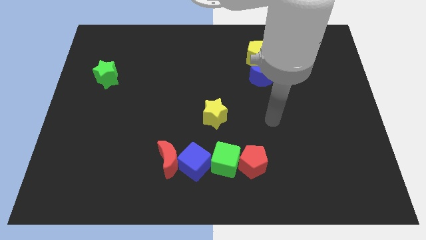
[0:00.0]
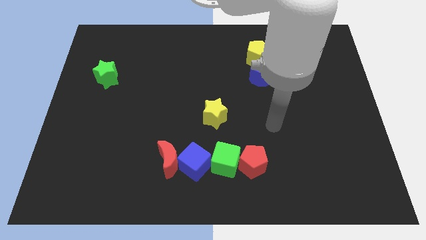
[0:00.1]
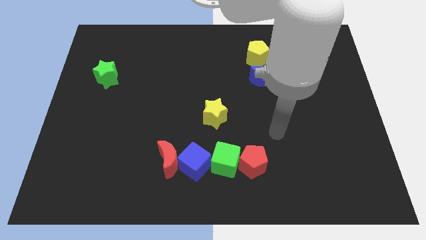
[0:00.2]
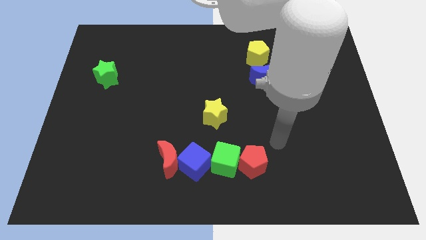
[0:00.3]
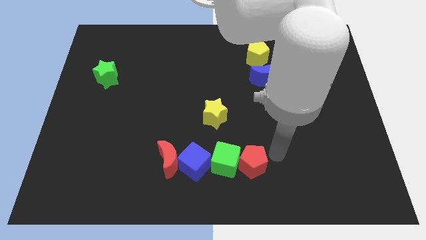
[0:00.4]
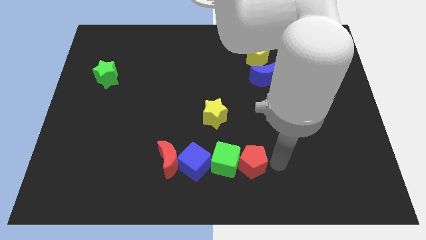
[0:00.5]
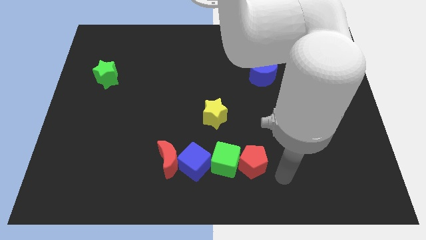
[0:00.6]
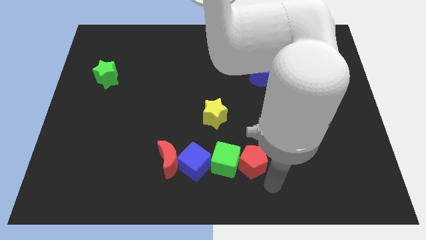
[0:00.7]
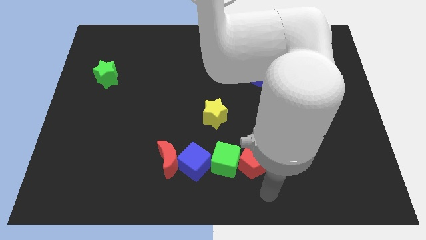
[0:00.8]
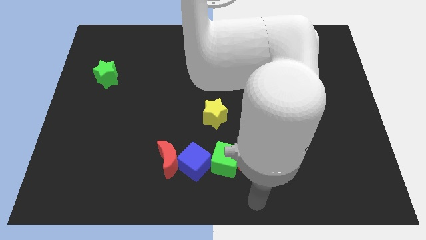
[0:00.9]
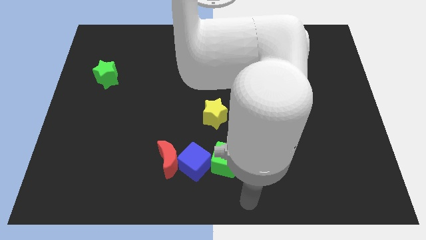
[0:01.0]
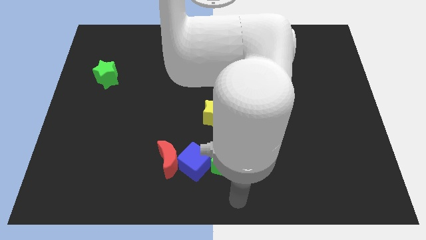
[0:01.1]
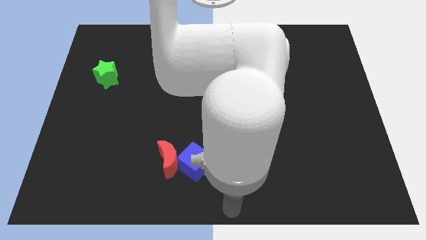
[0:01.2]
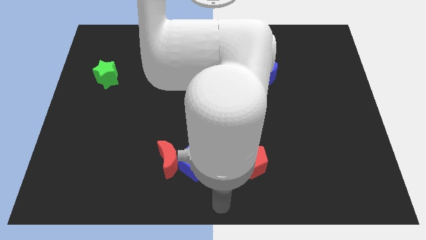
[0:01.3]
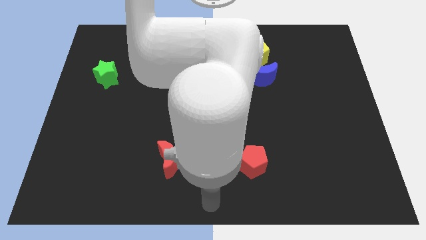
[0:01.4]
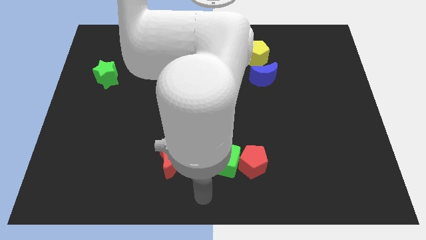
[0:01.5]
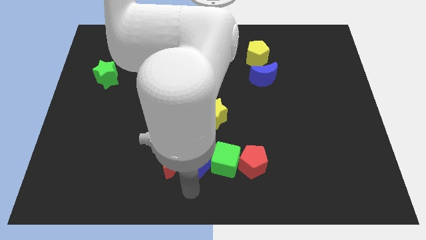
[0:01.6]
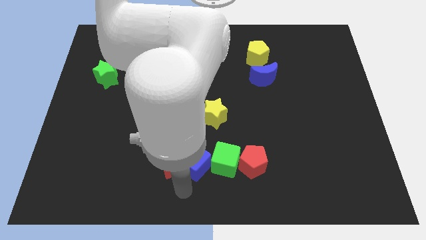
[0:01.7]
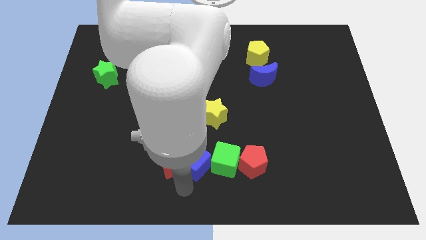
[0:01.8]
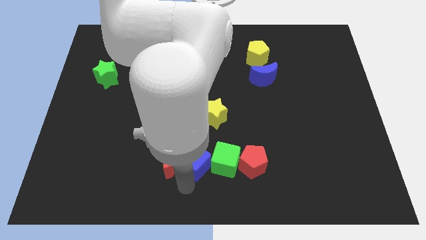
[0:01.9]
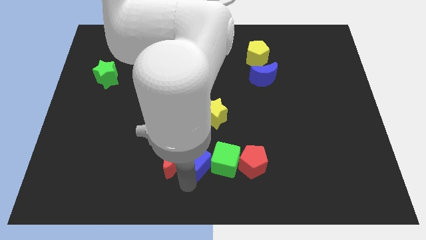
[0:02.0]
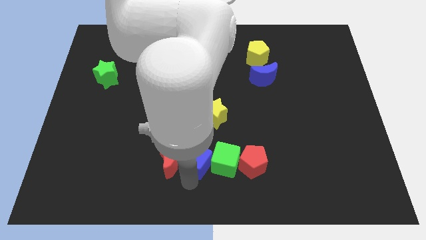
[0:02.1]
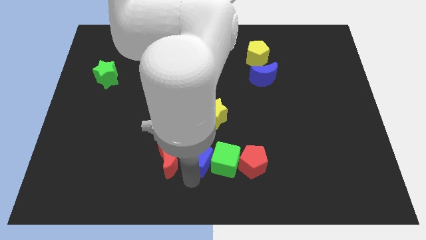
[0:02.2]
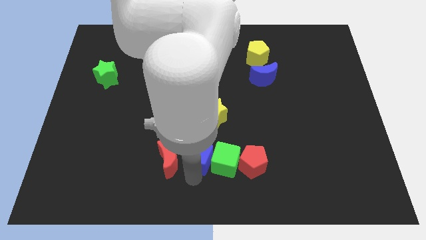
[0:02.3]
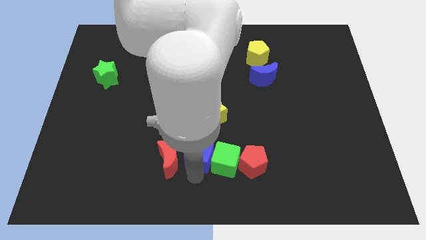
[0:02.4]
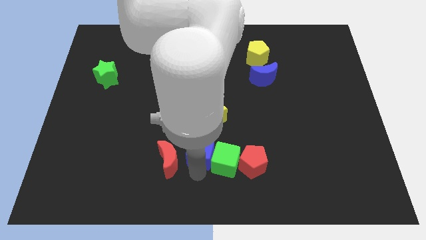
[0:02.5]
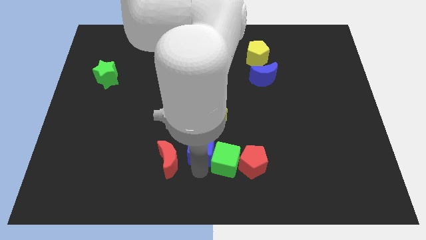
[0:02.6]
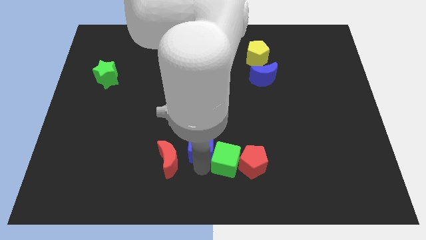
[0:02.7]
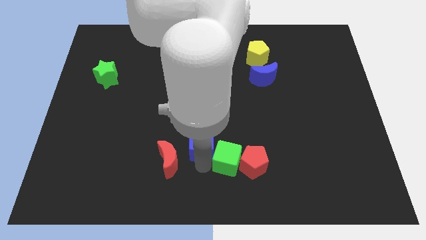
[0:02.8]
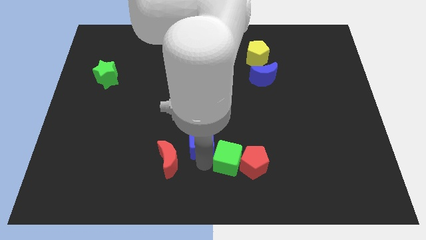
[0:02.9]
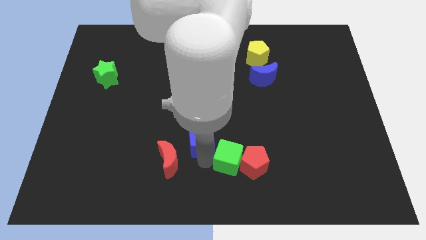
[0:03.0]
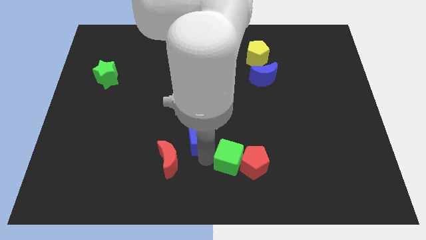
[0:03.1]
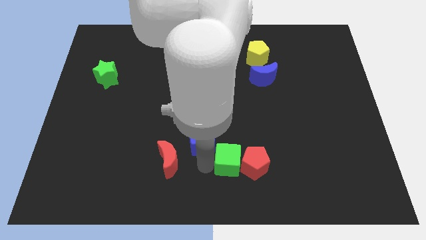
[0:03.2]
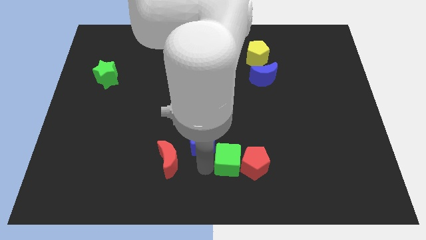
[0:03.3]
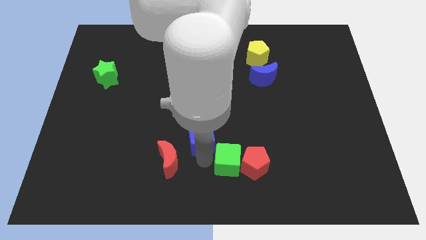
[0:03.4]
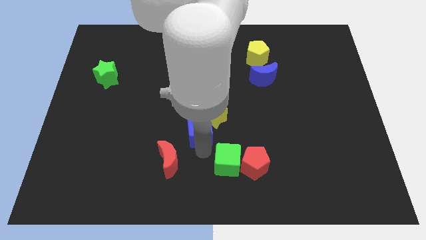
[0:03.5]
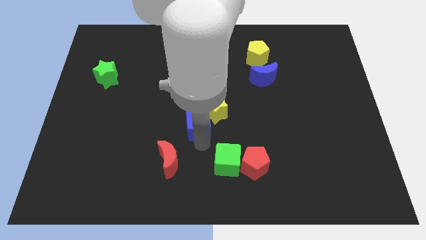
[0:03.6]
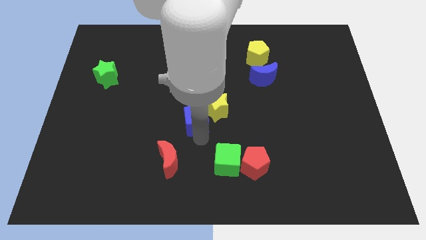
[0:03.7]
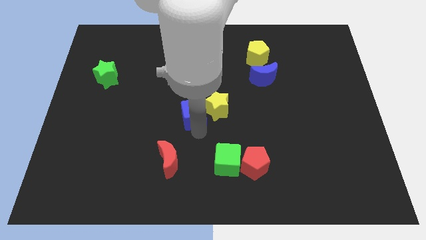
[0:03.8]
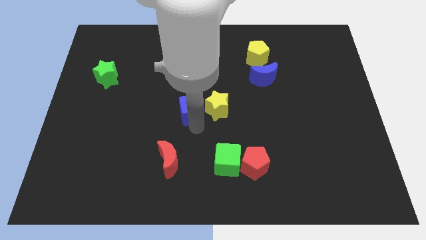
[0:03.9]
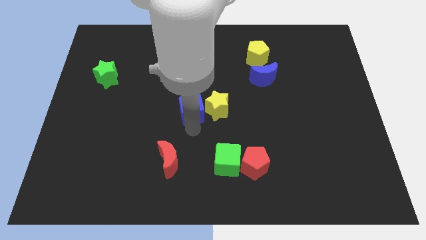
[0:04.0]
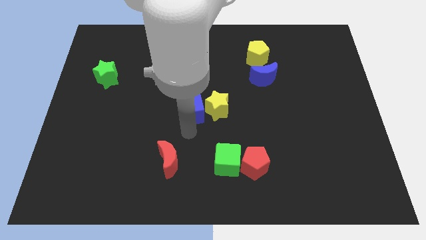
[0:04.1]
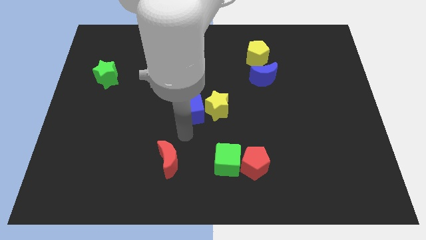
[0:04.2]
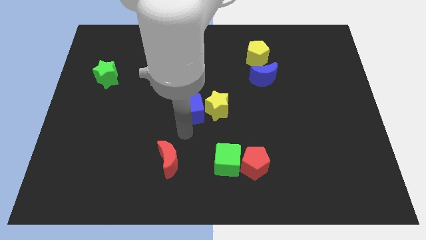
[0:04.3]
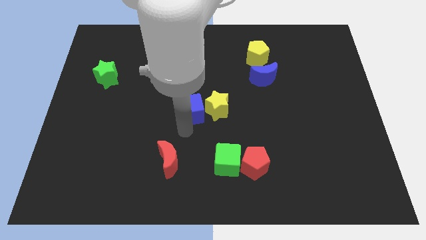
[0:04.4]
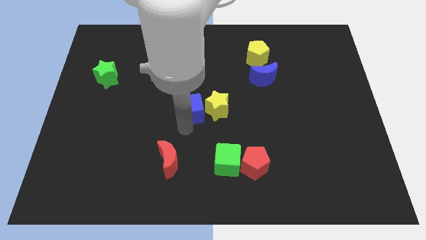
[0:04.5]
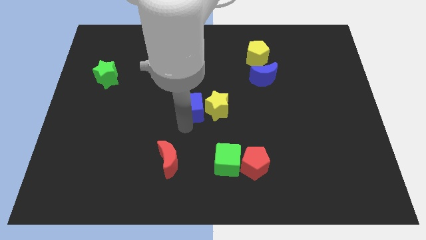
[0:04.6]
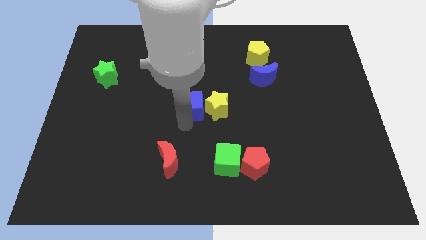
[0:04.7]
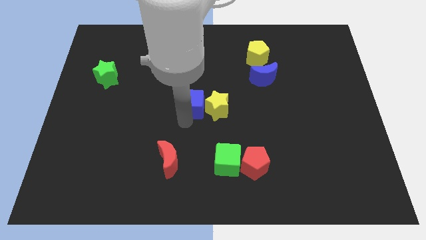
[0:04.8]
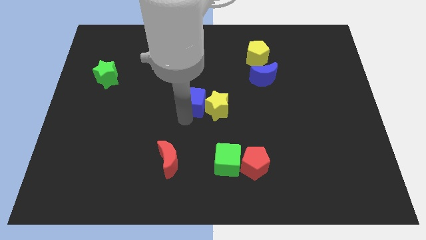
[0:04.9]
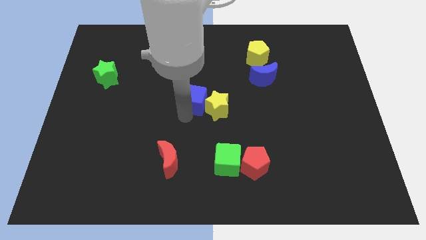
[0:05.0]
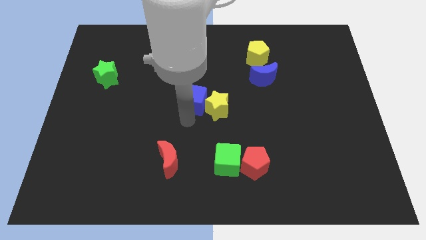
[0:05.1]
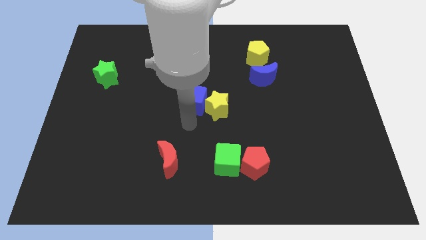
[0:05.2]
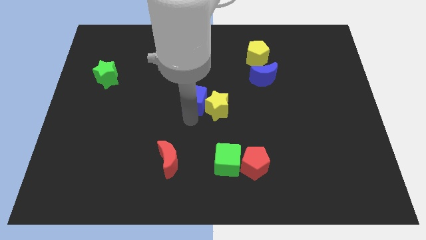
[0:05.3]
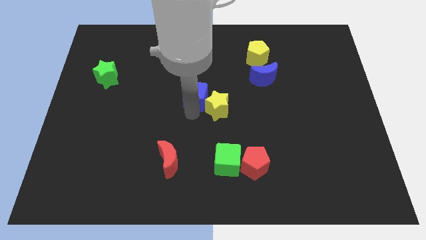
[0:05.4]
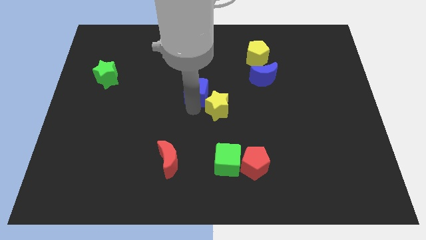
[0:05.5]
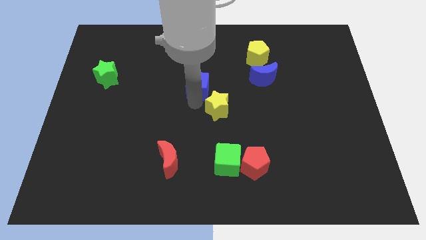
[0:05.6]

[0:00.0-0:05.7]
push the blue cube upwards

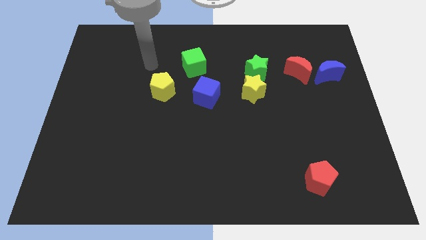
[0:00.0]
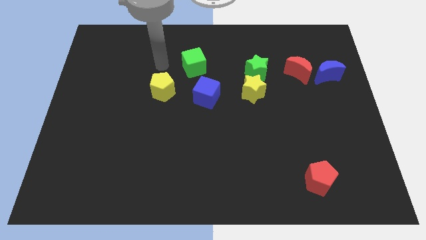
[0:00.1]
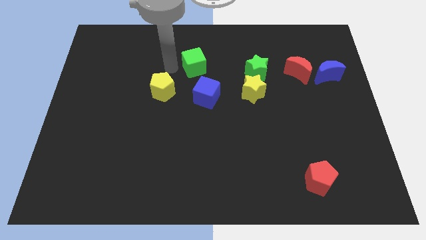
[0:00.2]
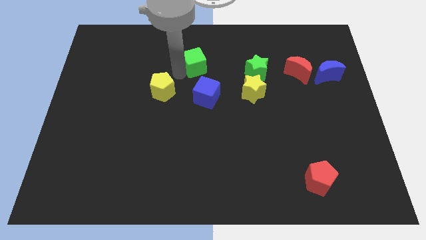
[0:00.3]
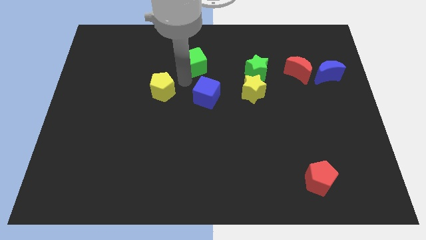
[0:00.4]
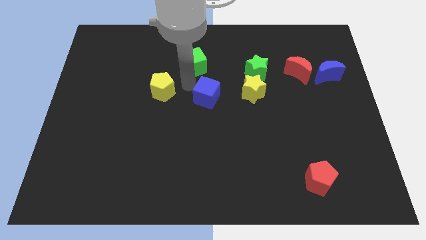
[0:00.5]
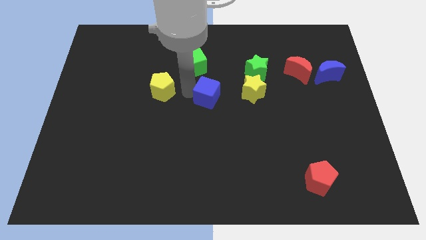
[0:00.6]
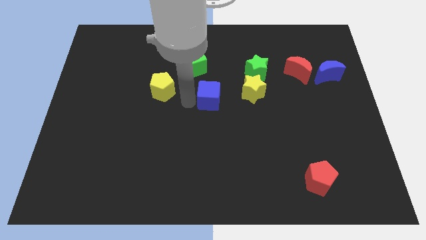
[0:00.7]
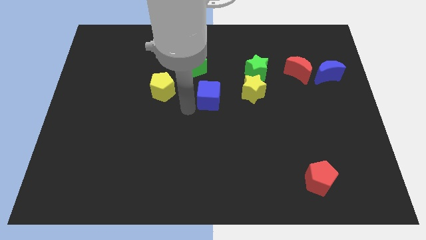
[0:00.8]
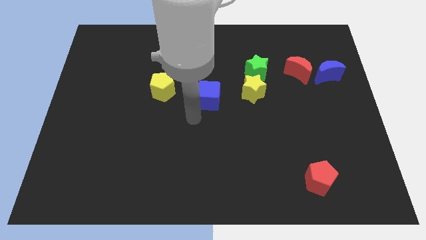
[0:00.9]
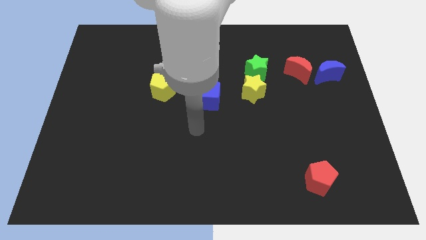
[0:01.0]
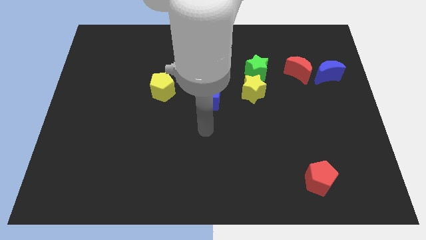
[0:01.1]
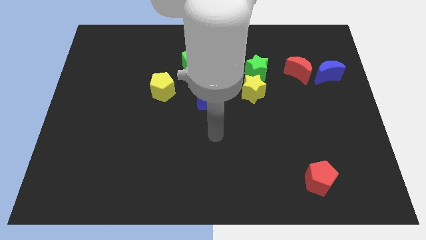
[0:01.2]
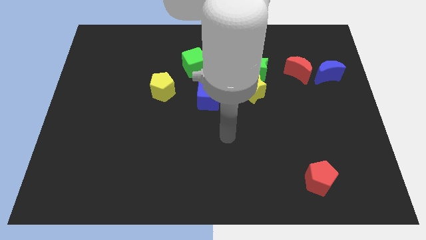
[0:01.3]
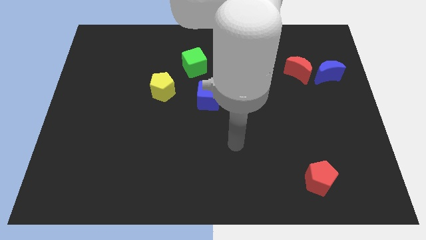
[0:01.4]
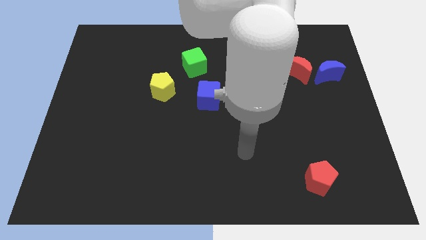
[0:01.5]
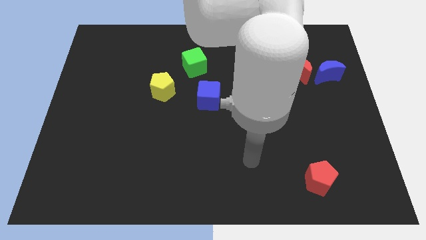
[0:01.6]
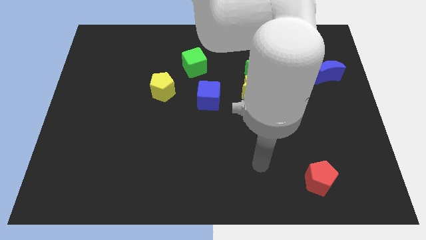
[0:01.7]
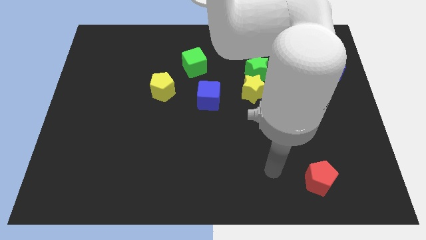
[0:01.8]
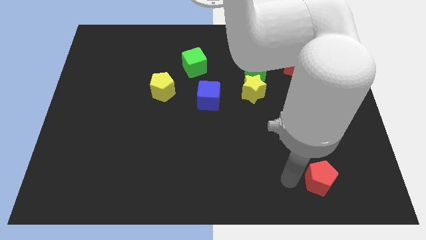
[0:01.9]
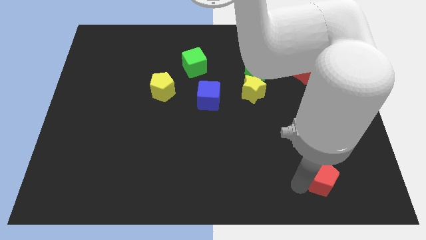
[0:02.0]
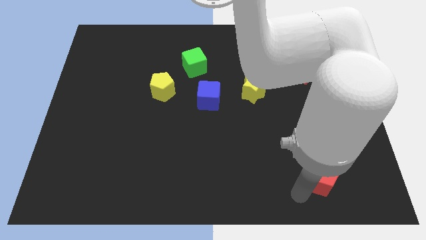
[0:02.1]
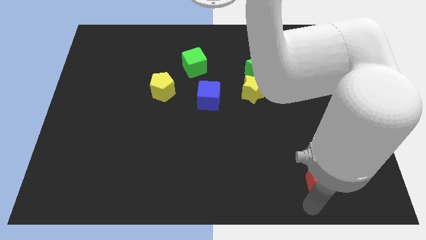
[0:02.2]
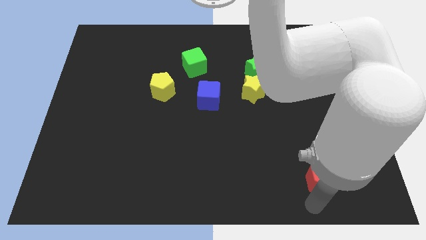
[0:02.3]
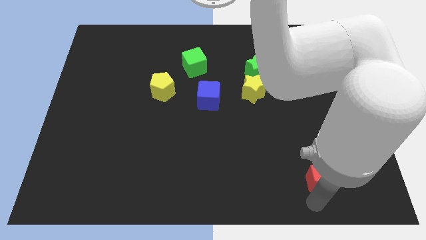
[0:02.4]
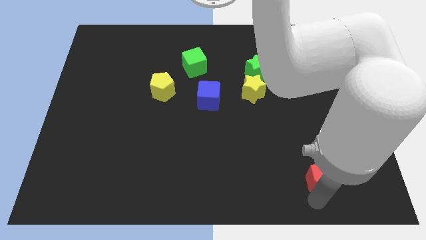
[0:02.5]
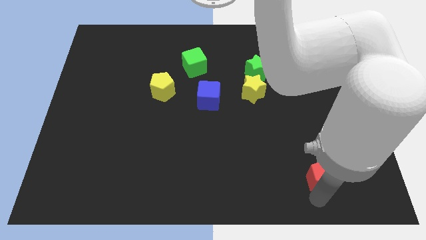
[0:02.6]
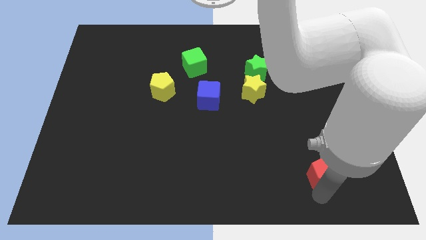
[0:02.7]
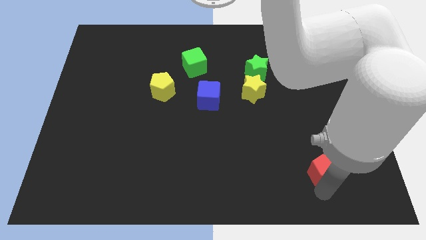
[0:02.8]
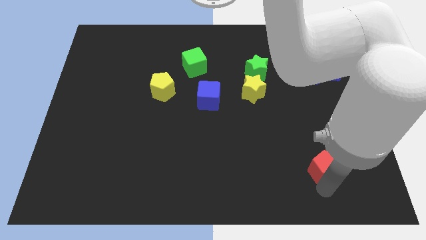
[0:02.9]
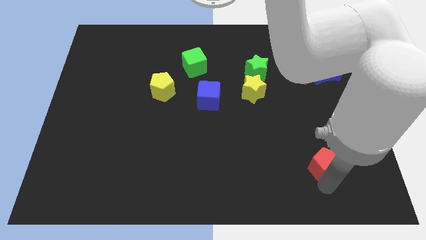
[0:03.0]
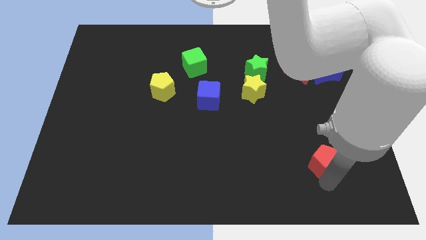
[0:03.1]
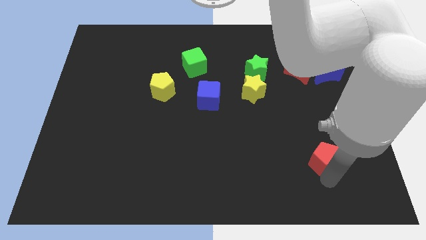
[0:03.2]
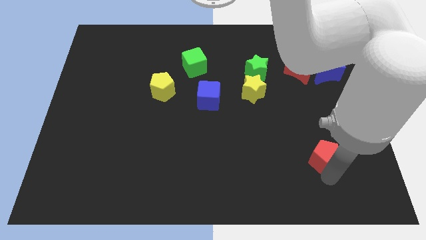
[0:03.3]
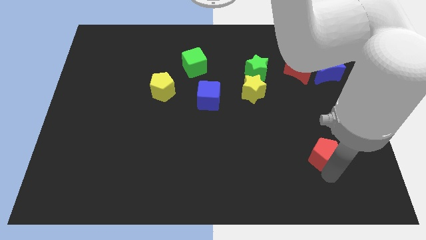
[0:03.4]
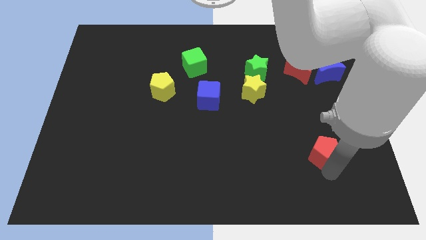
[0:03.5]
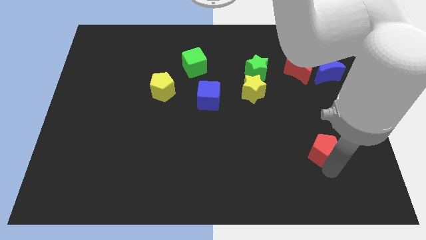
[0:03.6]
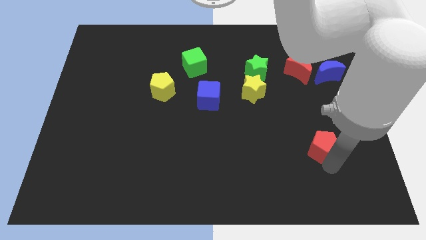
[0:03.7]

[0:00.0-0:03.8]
slide the red pentagon somewhat upwards
